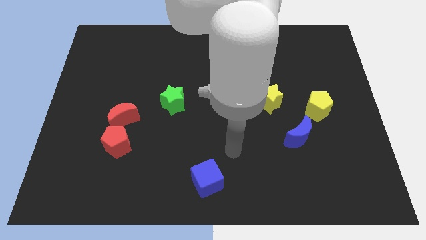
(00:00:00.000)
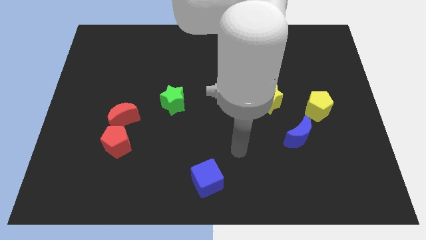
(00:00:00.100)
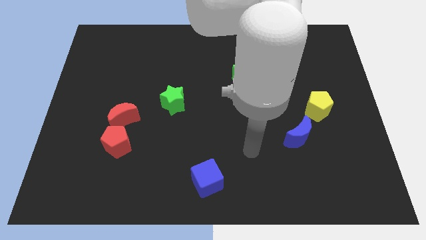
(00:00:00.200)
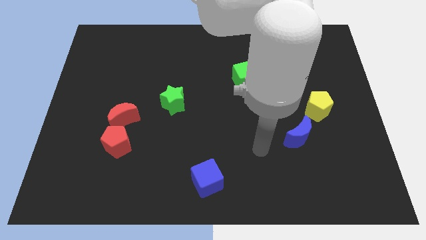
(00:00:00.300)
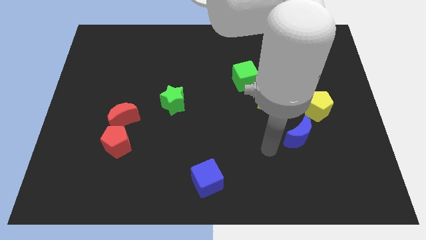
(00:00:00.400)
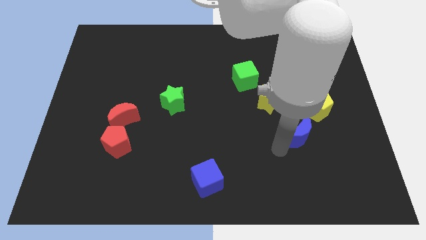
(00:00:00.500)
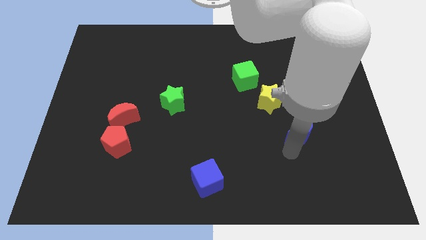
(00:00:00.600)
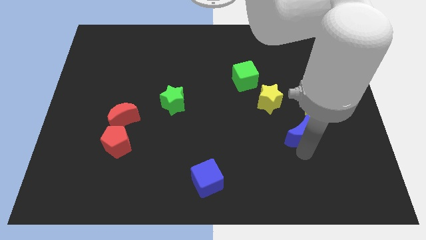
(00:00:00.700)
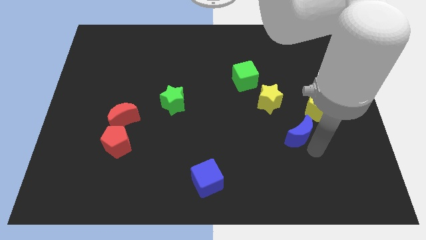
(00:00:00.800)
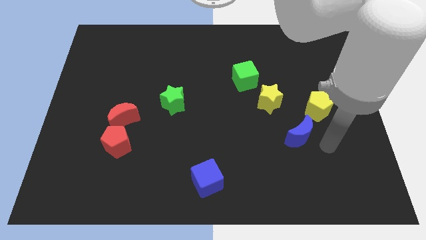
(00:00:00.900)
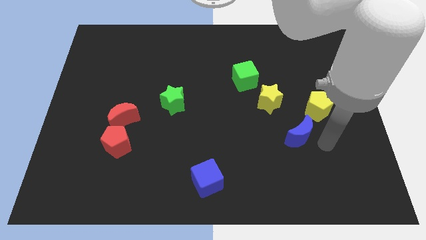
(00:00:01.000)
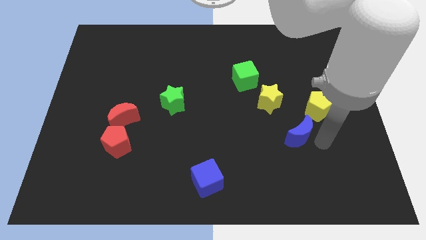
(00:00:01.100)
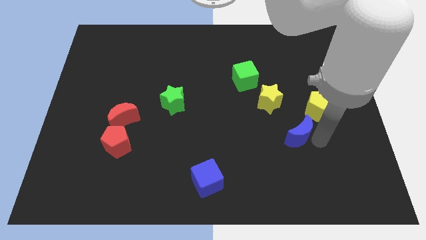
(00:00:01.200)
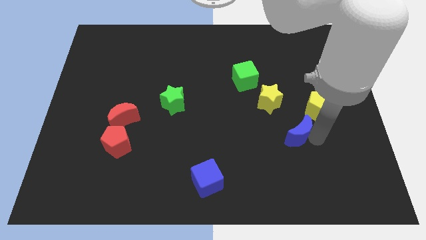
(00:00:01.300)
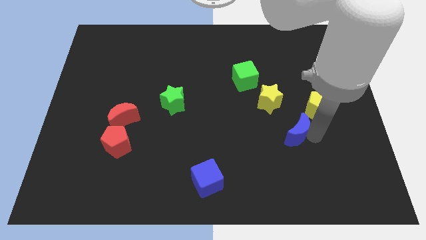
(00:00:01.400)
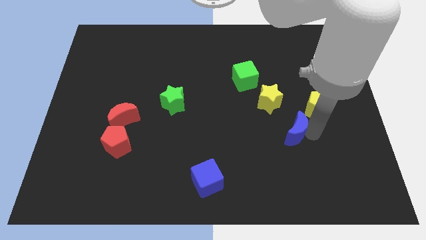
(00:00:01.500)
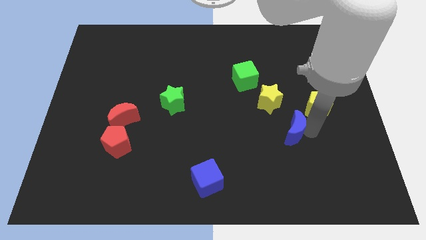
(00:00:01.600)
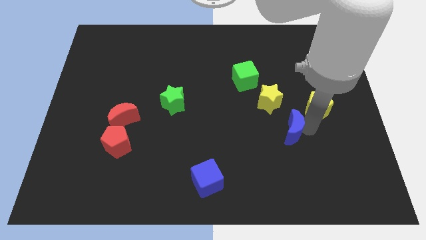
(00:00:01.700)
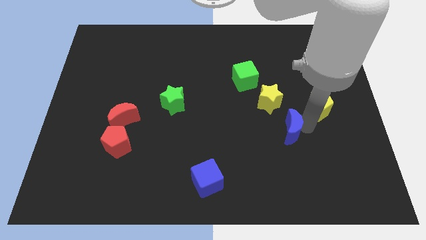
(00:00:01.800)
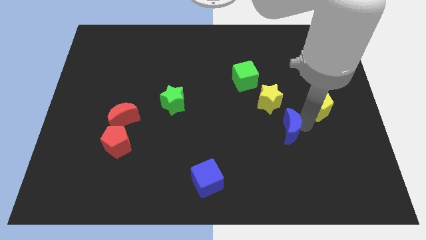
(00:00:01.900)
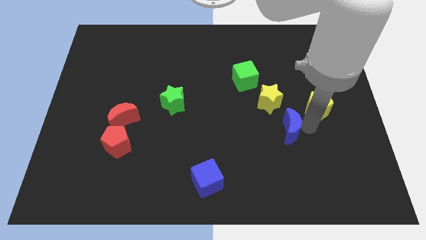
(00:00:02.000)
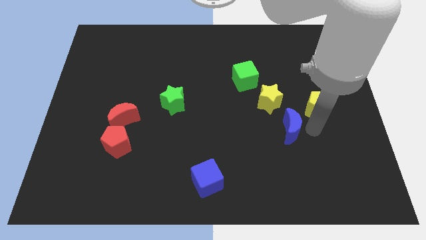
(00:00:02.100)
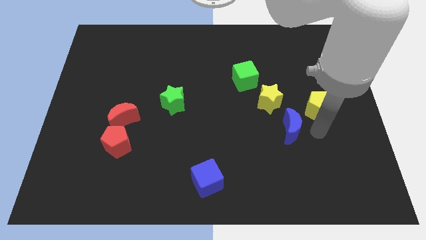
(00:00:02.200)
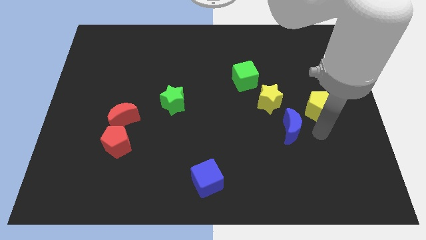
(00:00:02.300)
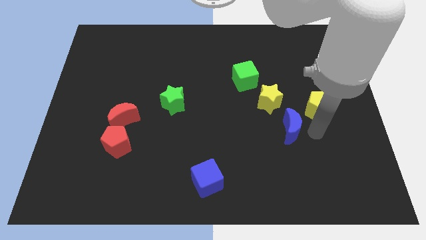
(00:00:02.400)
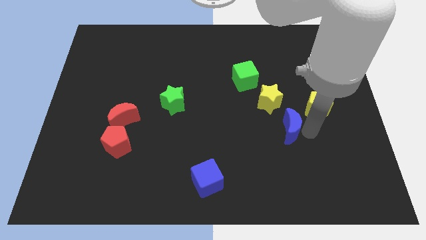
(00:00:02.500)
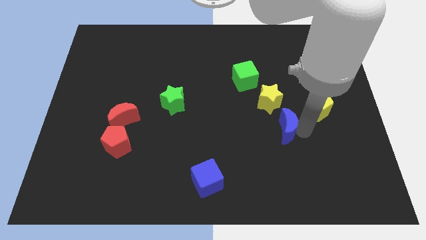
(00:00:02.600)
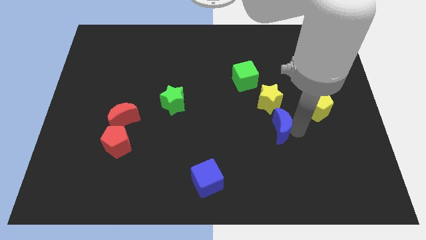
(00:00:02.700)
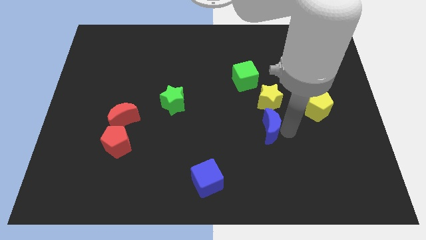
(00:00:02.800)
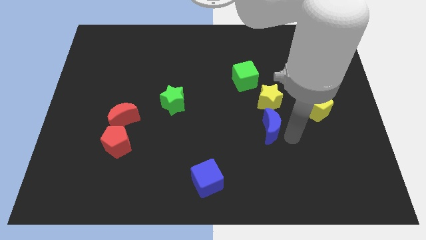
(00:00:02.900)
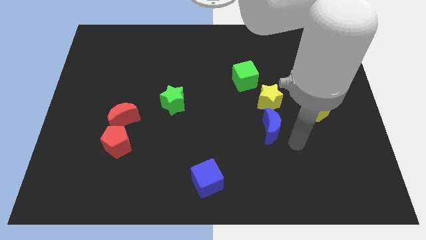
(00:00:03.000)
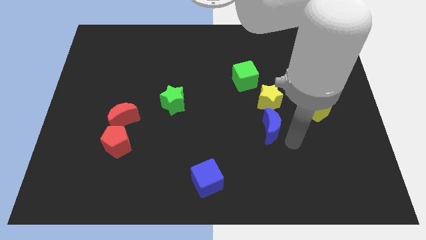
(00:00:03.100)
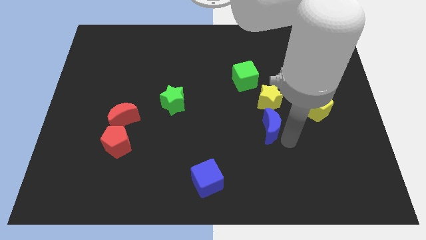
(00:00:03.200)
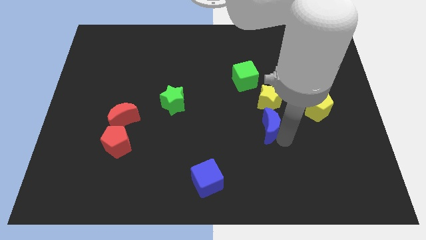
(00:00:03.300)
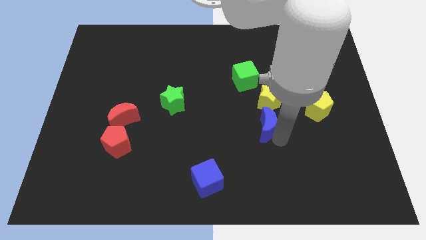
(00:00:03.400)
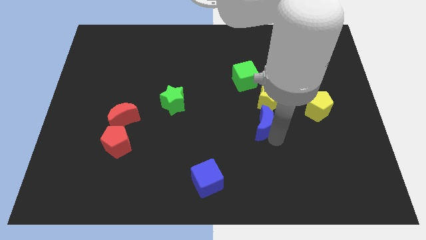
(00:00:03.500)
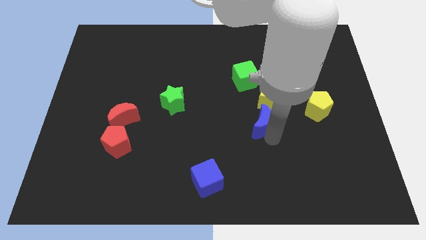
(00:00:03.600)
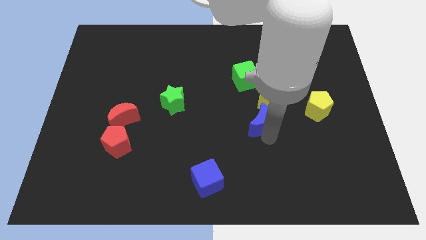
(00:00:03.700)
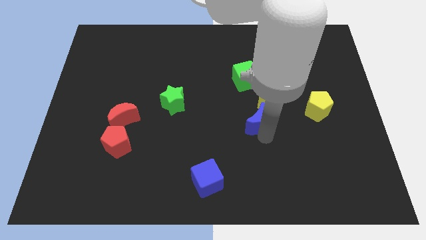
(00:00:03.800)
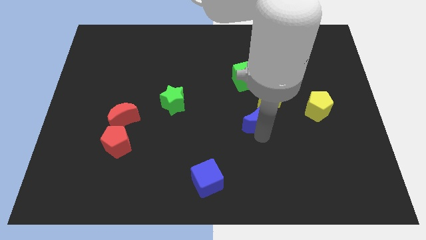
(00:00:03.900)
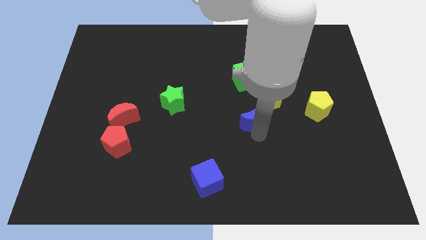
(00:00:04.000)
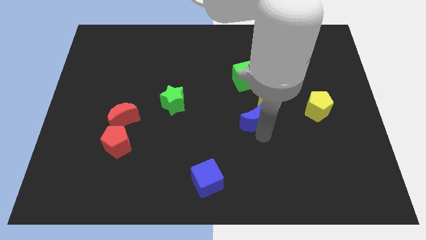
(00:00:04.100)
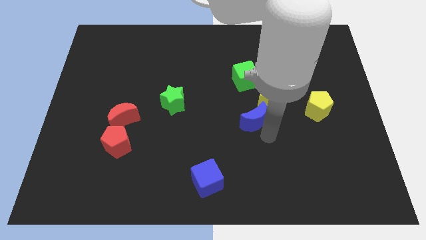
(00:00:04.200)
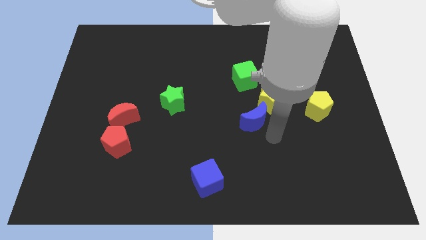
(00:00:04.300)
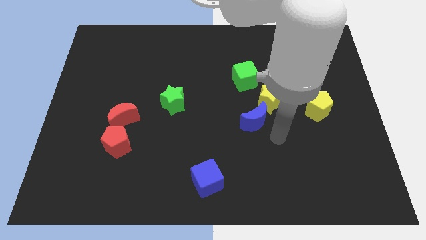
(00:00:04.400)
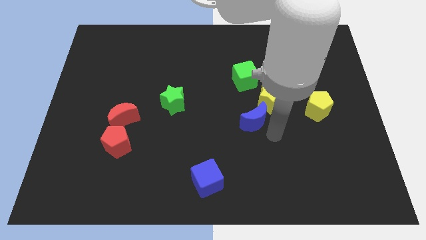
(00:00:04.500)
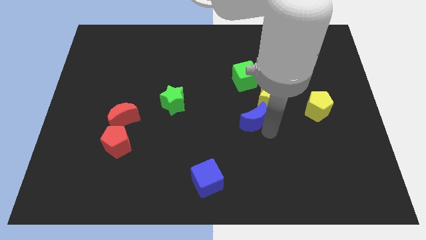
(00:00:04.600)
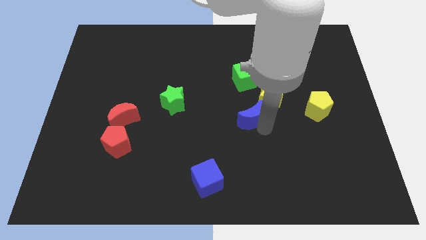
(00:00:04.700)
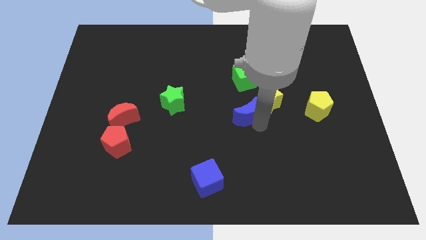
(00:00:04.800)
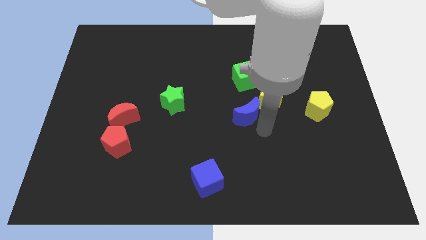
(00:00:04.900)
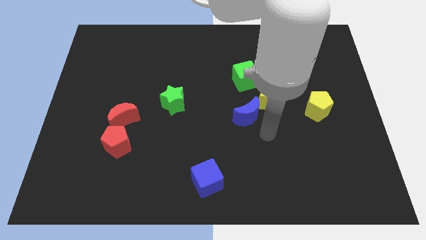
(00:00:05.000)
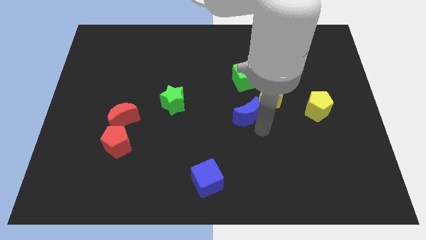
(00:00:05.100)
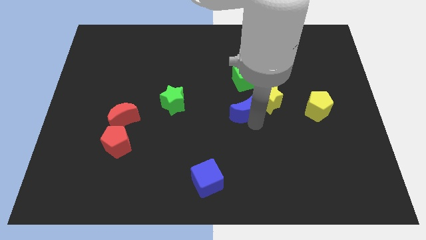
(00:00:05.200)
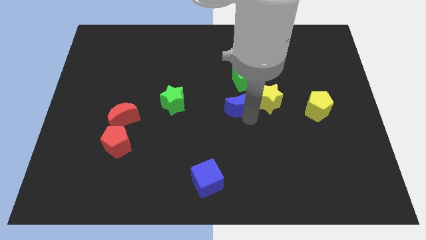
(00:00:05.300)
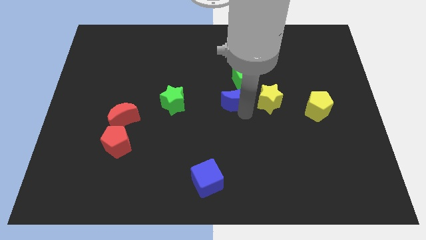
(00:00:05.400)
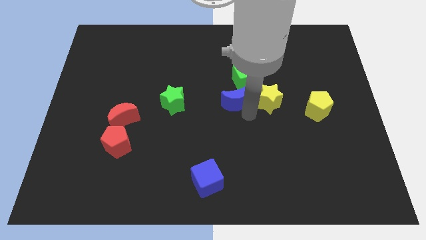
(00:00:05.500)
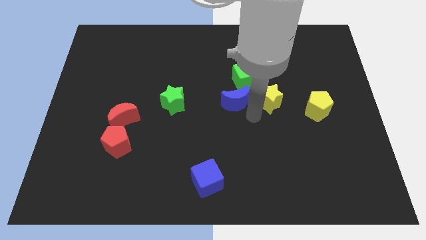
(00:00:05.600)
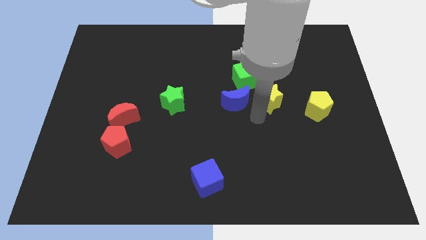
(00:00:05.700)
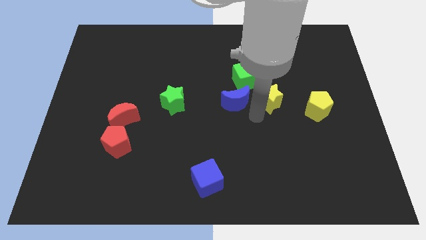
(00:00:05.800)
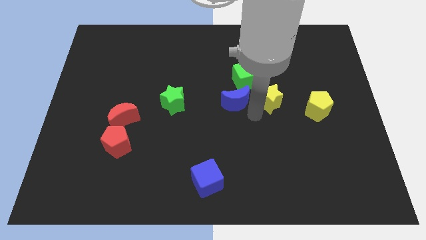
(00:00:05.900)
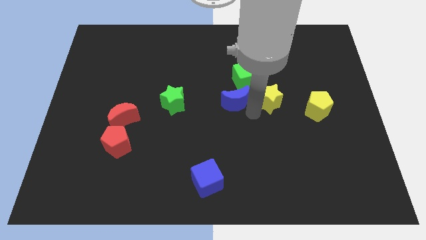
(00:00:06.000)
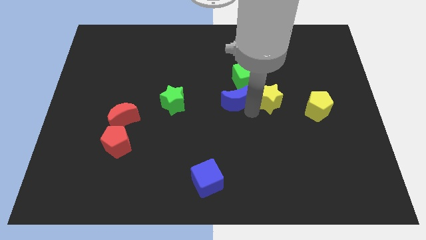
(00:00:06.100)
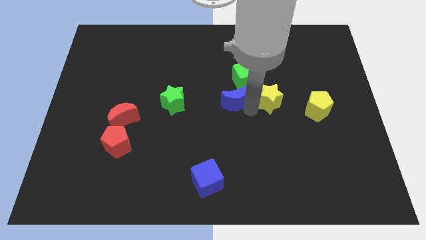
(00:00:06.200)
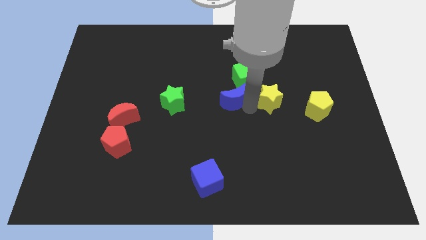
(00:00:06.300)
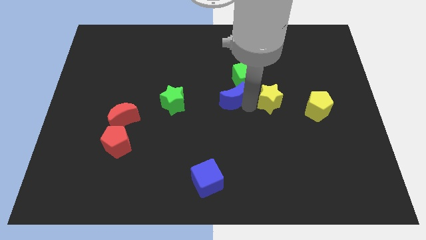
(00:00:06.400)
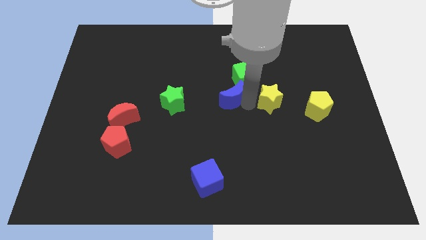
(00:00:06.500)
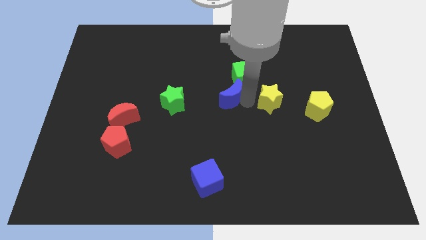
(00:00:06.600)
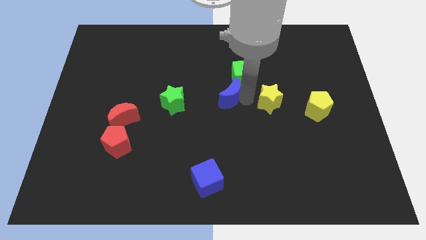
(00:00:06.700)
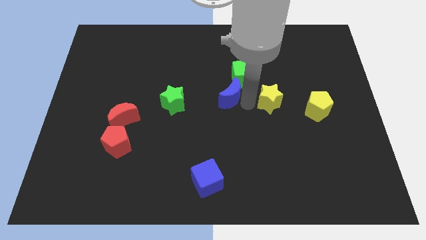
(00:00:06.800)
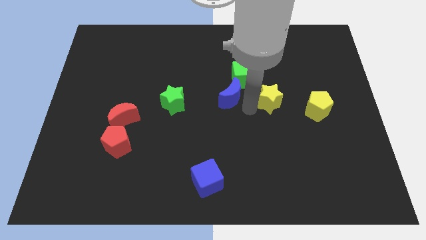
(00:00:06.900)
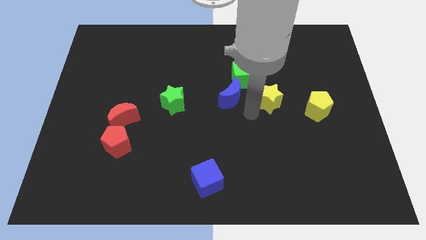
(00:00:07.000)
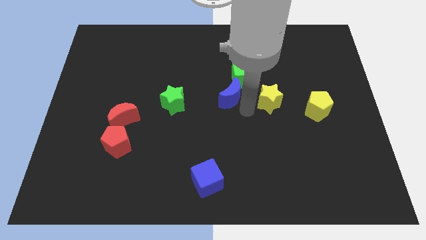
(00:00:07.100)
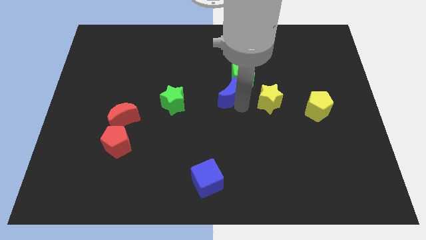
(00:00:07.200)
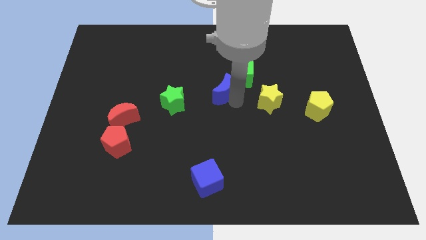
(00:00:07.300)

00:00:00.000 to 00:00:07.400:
push the blue moon upwards and then left

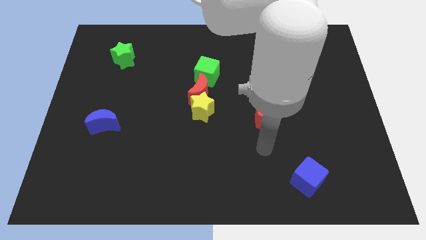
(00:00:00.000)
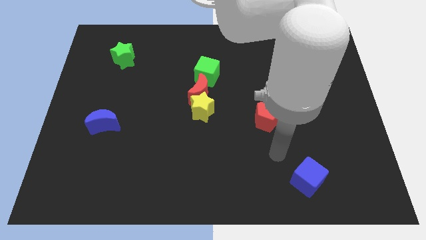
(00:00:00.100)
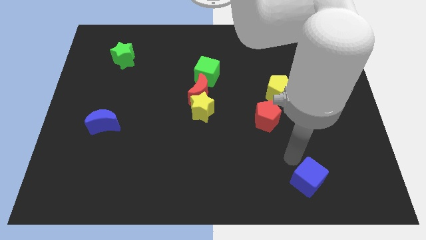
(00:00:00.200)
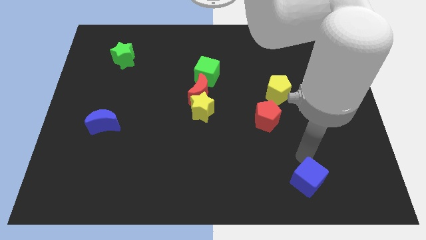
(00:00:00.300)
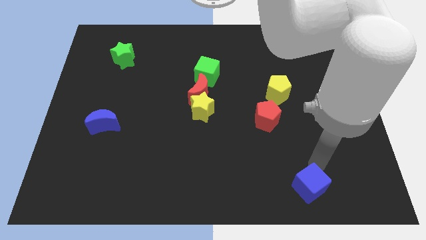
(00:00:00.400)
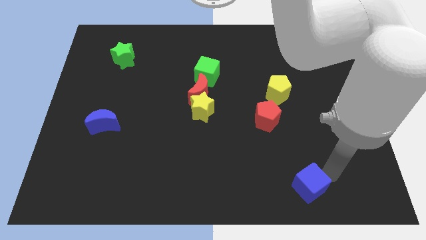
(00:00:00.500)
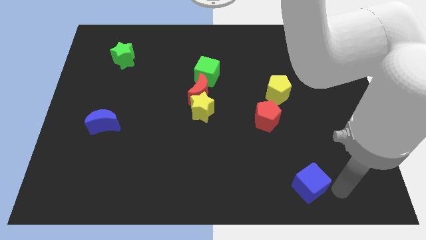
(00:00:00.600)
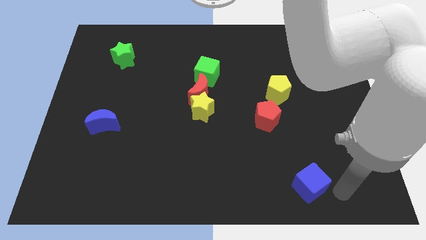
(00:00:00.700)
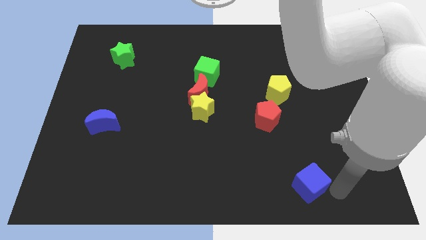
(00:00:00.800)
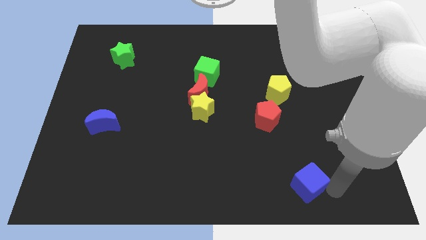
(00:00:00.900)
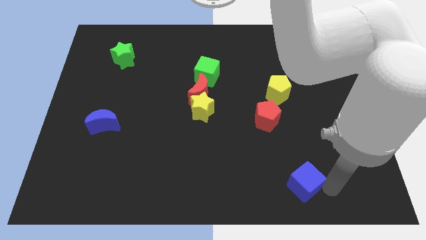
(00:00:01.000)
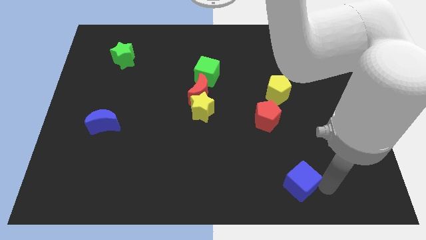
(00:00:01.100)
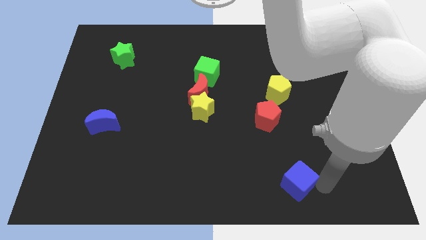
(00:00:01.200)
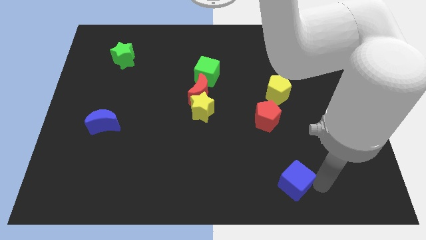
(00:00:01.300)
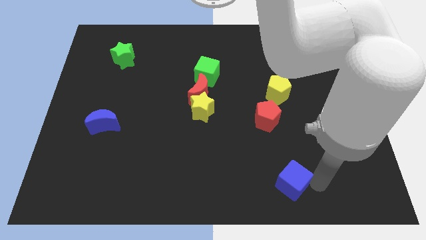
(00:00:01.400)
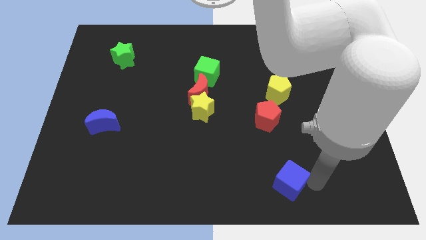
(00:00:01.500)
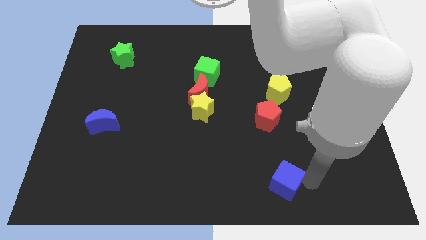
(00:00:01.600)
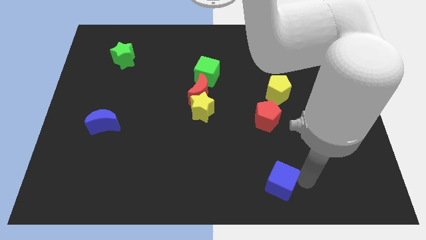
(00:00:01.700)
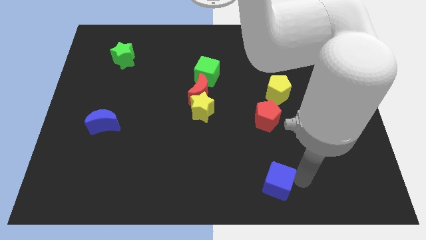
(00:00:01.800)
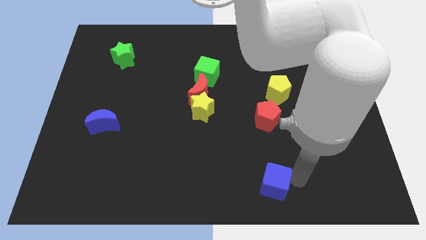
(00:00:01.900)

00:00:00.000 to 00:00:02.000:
slightly slide the blue cube to the left
